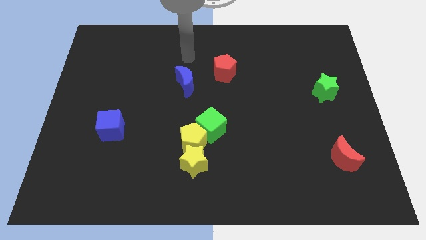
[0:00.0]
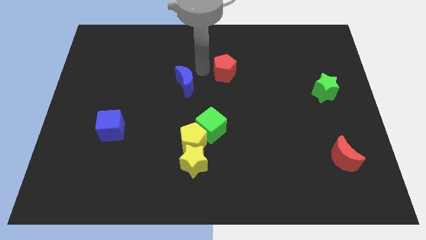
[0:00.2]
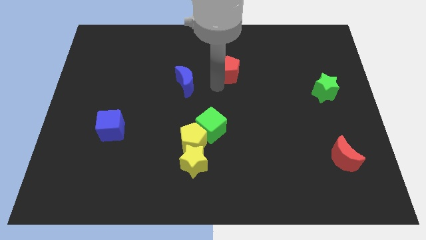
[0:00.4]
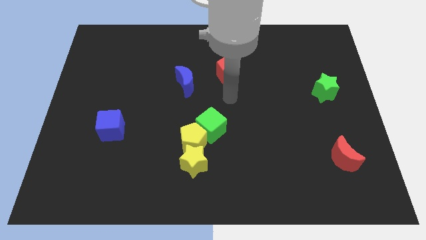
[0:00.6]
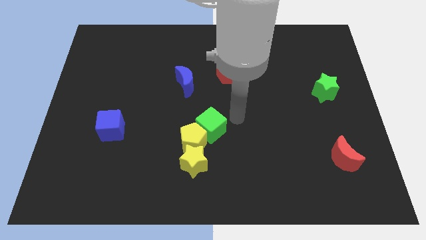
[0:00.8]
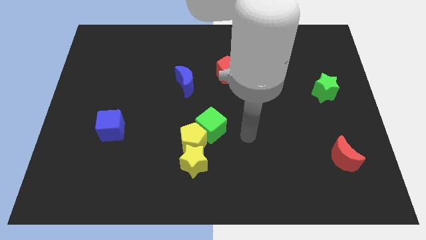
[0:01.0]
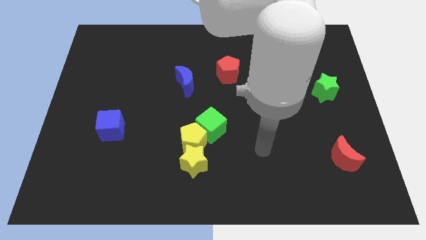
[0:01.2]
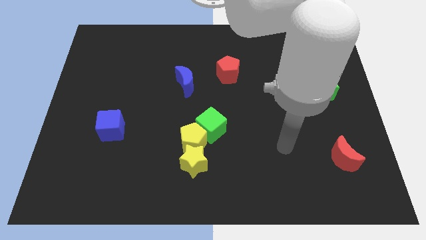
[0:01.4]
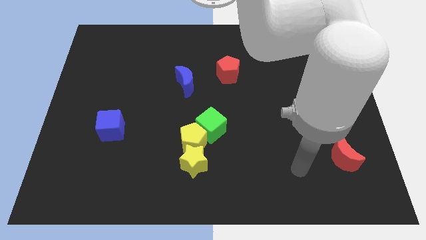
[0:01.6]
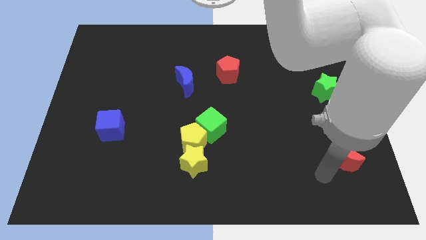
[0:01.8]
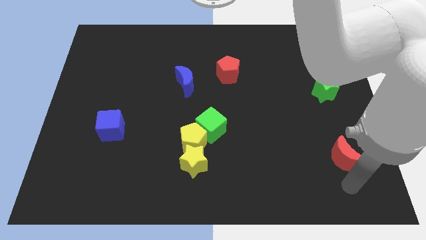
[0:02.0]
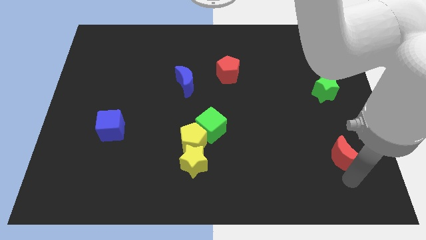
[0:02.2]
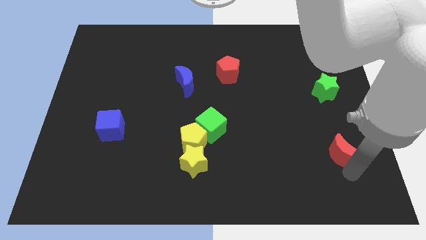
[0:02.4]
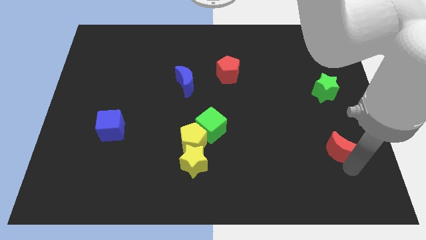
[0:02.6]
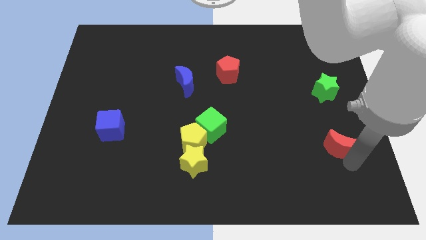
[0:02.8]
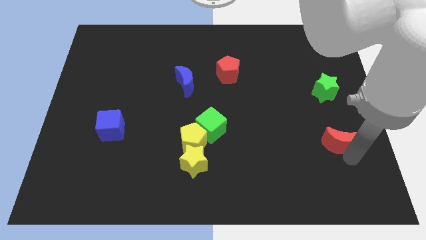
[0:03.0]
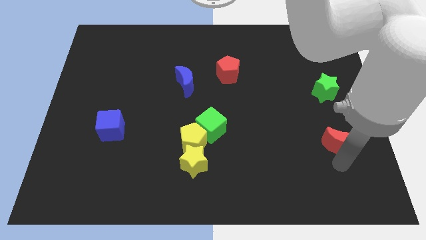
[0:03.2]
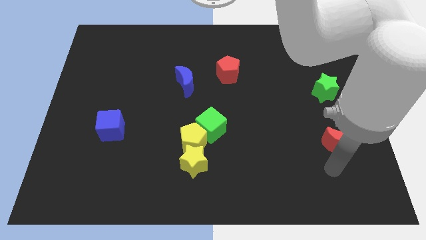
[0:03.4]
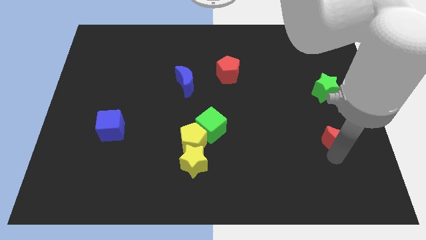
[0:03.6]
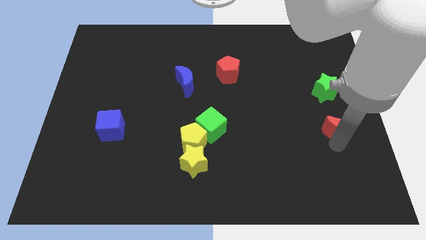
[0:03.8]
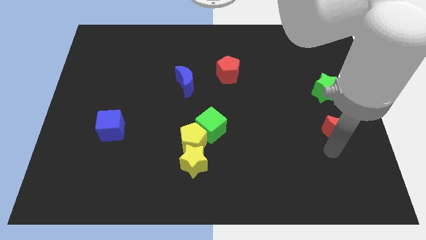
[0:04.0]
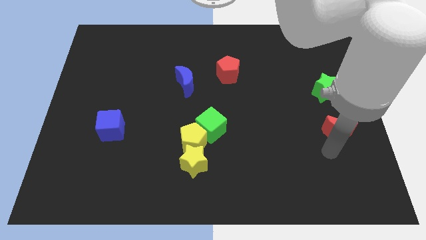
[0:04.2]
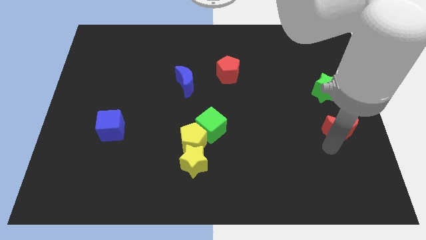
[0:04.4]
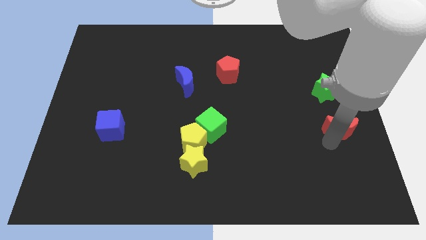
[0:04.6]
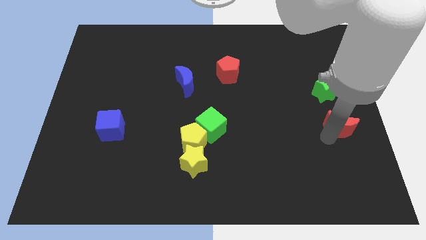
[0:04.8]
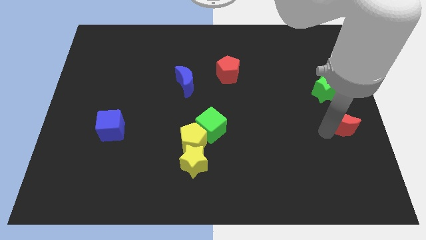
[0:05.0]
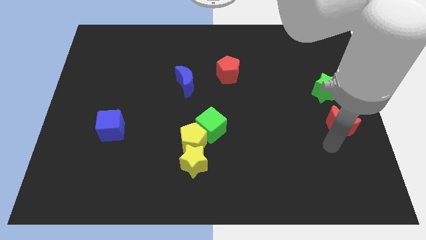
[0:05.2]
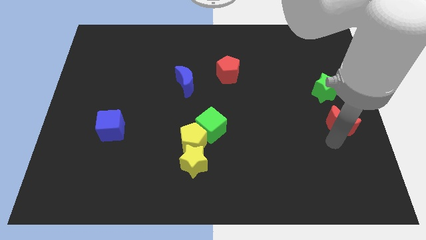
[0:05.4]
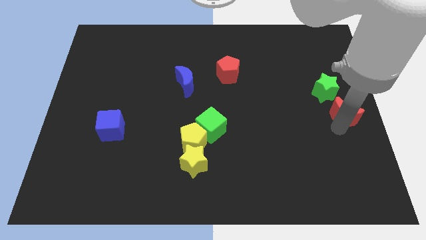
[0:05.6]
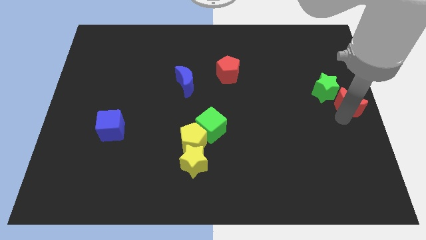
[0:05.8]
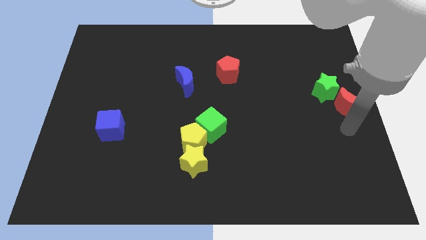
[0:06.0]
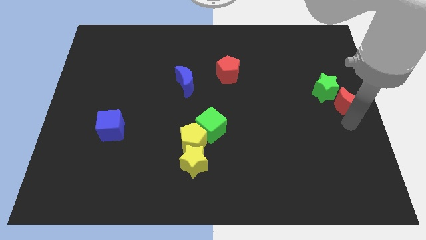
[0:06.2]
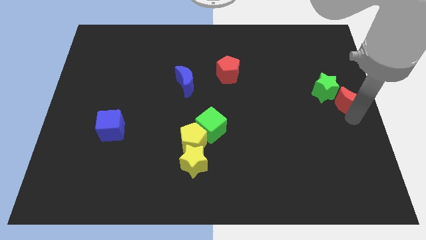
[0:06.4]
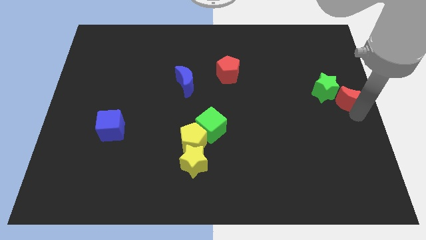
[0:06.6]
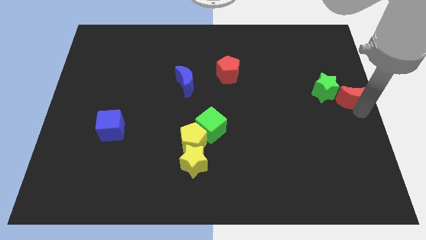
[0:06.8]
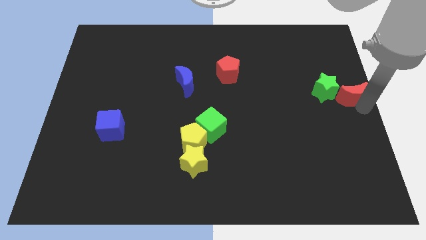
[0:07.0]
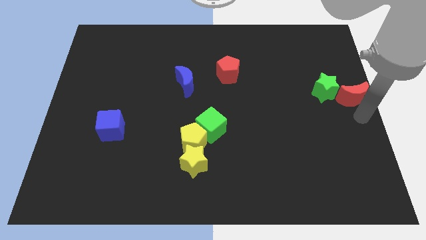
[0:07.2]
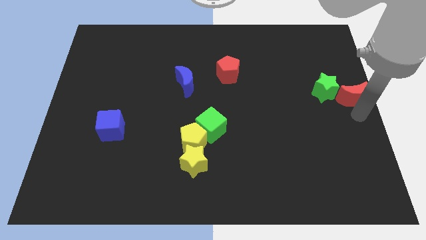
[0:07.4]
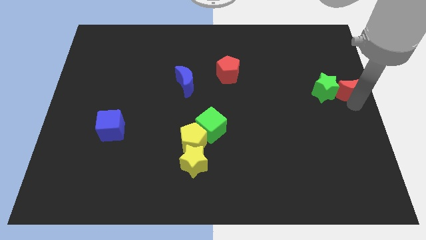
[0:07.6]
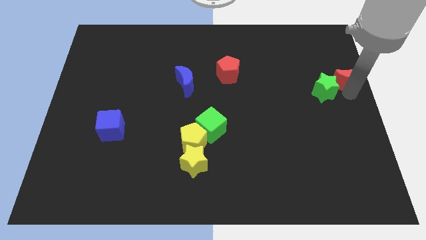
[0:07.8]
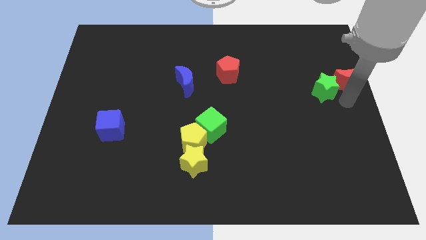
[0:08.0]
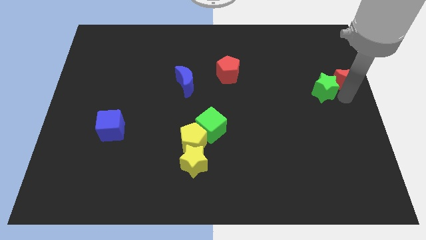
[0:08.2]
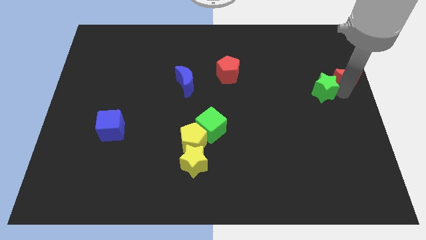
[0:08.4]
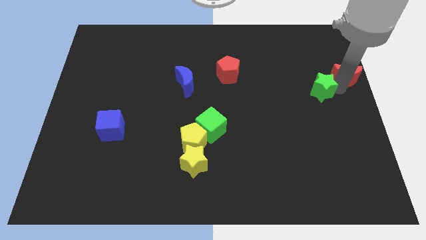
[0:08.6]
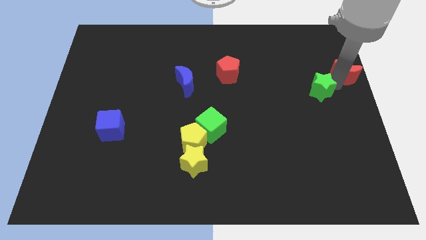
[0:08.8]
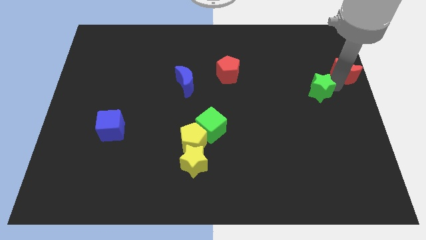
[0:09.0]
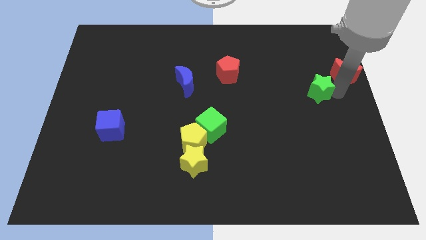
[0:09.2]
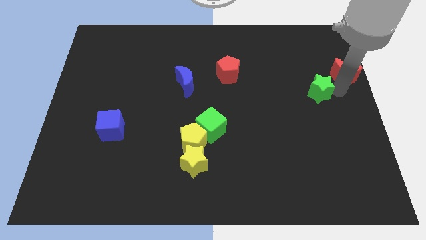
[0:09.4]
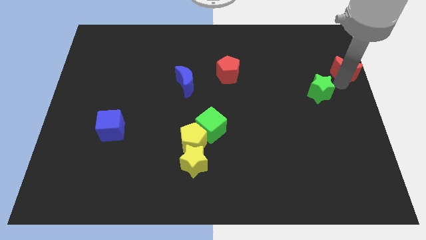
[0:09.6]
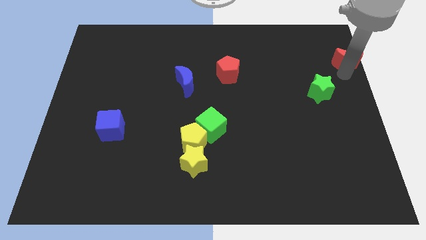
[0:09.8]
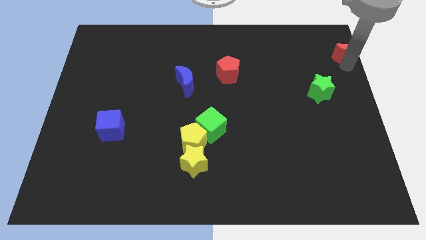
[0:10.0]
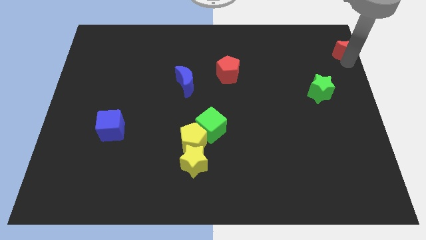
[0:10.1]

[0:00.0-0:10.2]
move the red moon to the top right corner

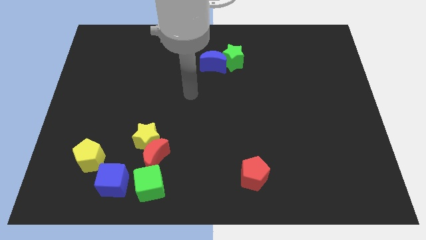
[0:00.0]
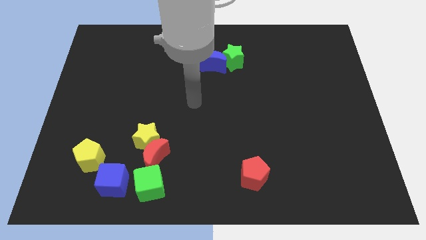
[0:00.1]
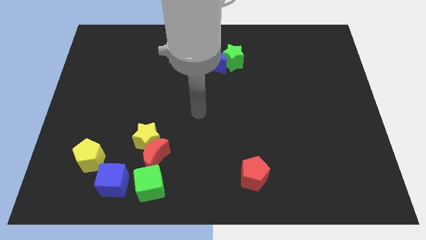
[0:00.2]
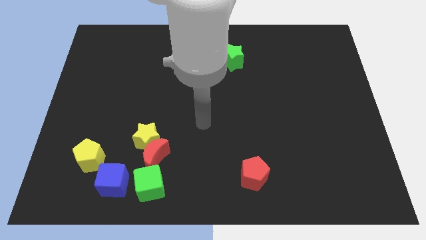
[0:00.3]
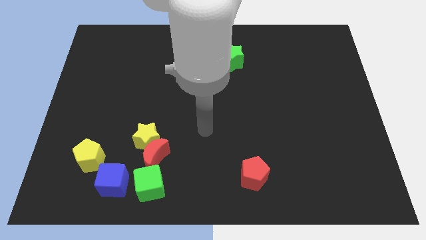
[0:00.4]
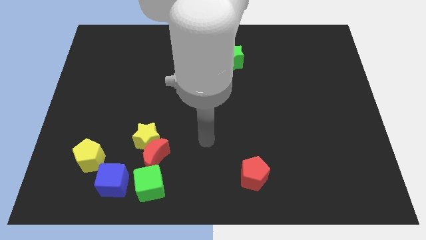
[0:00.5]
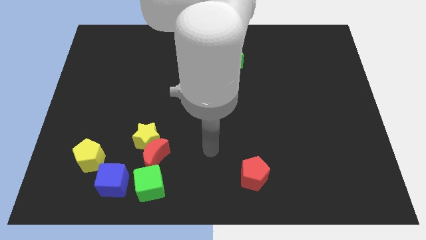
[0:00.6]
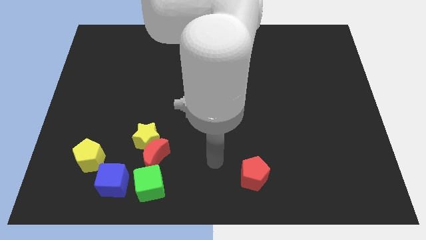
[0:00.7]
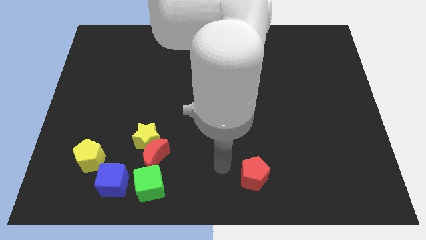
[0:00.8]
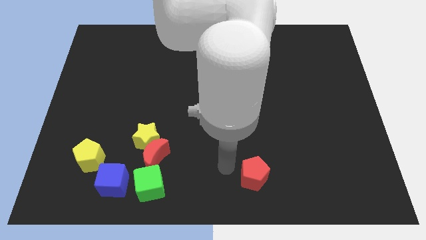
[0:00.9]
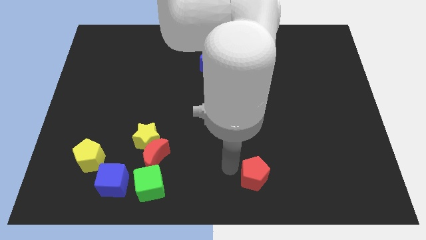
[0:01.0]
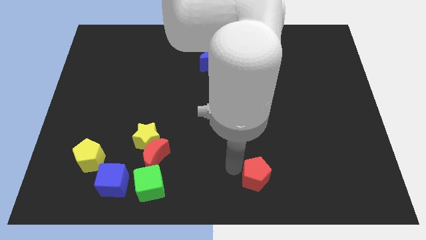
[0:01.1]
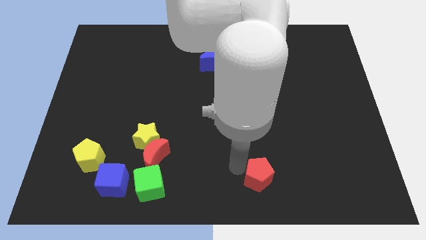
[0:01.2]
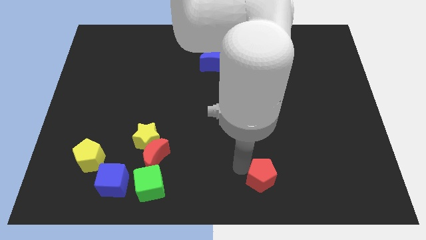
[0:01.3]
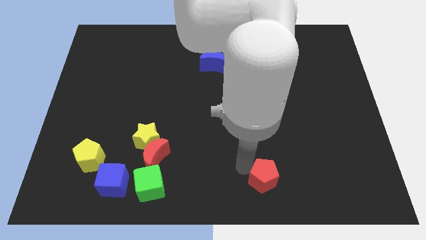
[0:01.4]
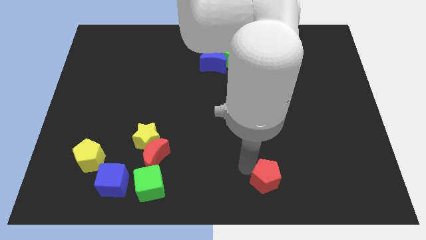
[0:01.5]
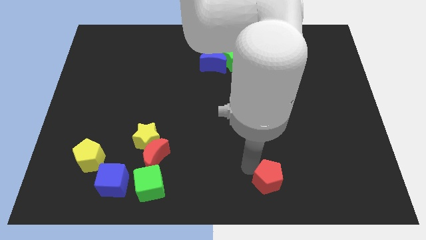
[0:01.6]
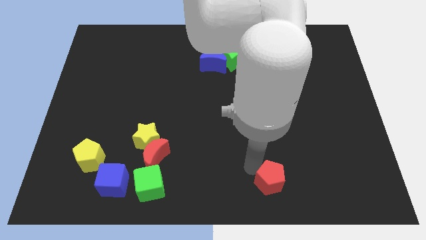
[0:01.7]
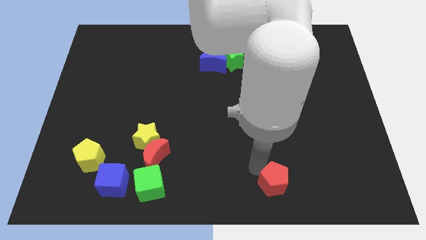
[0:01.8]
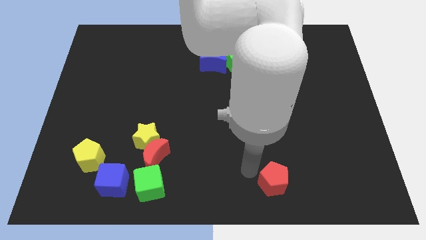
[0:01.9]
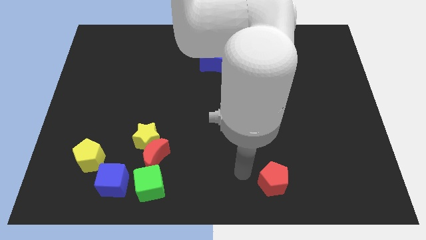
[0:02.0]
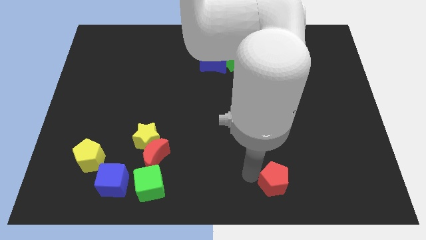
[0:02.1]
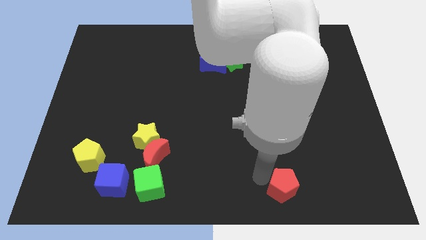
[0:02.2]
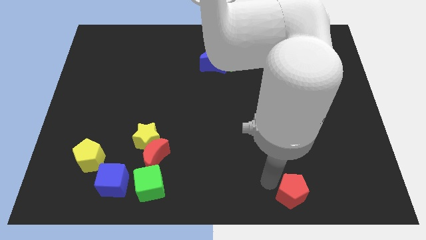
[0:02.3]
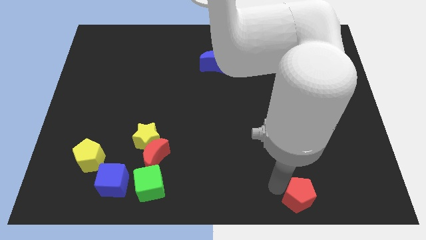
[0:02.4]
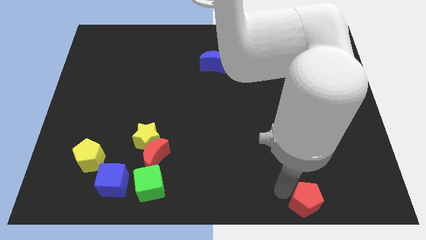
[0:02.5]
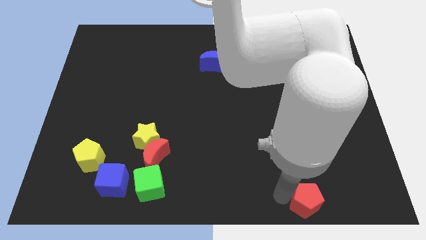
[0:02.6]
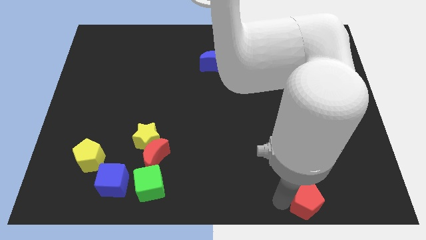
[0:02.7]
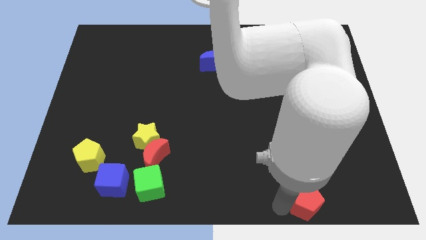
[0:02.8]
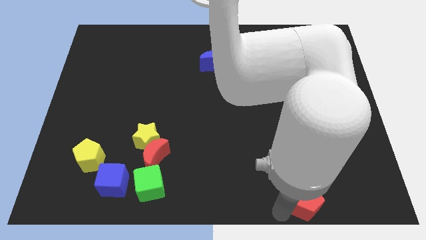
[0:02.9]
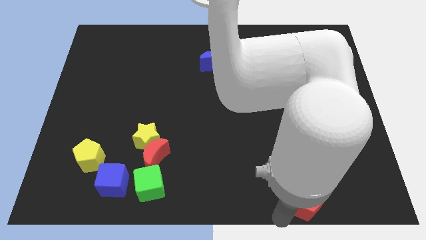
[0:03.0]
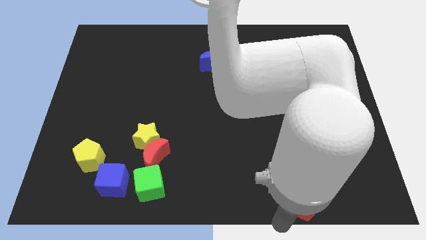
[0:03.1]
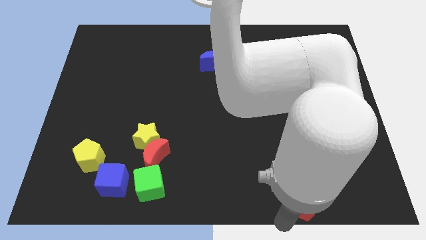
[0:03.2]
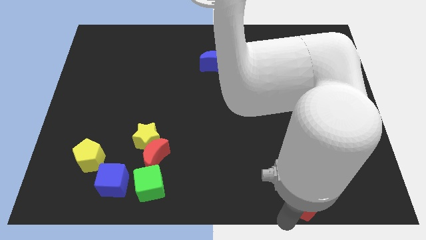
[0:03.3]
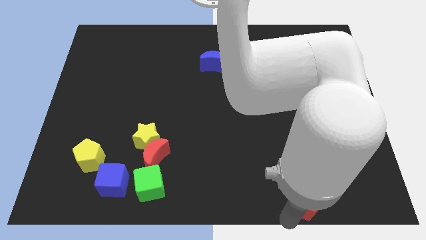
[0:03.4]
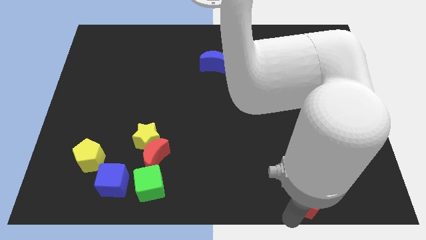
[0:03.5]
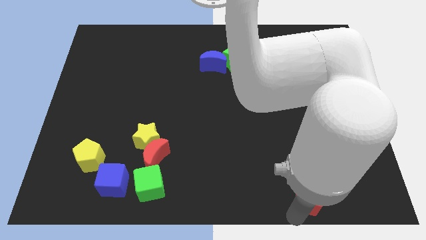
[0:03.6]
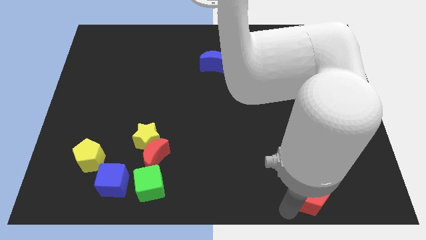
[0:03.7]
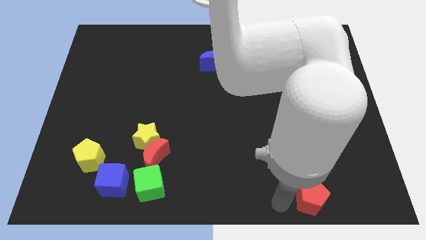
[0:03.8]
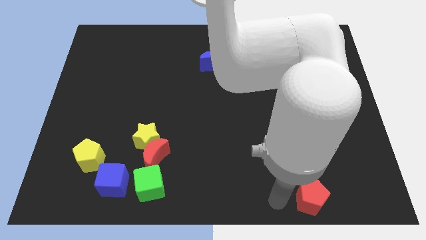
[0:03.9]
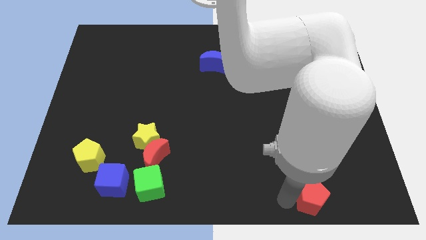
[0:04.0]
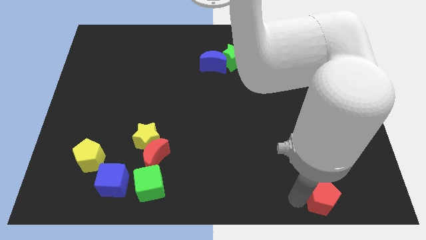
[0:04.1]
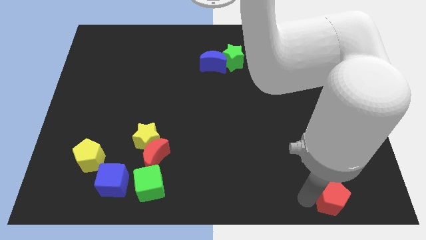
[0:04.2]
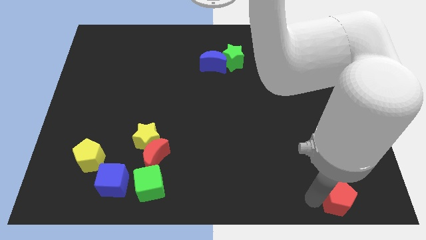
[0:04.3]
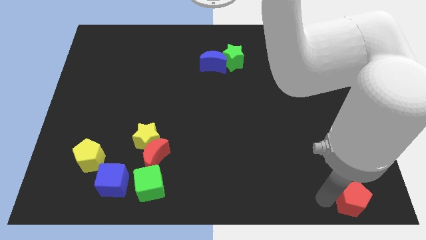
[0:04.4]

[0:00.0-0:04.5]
push the red pentagon to the bottom right
